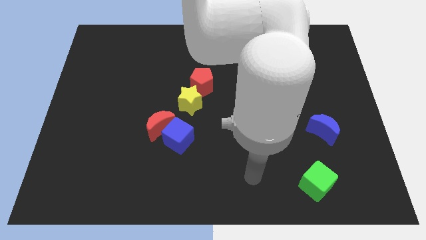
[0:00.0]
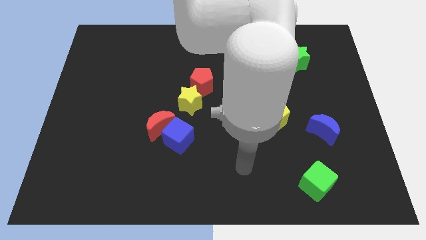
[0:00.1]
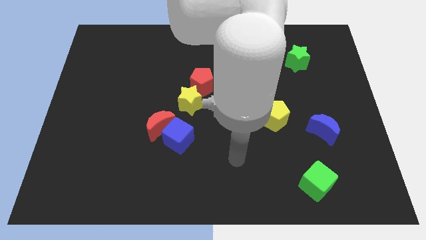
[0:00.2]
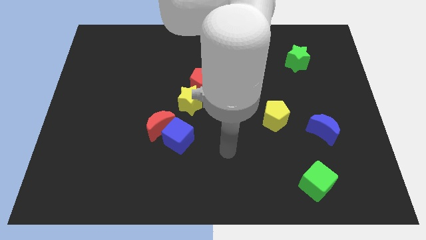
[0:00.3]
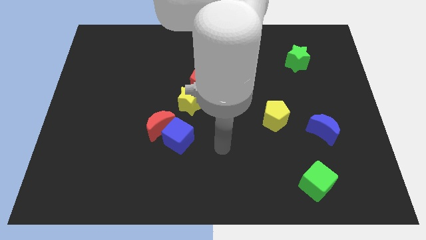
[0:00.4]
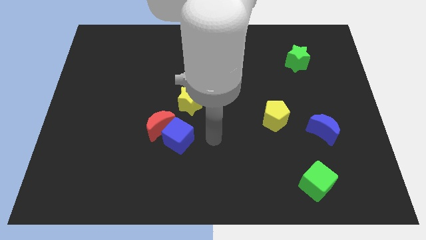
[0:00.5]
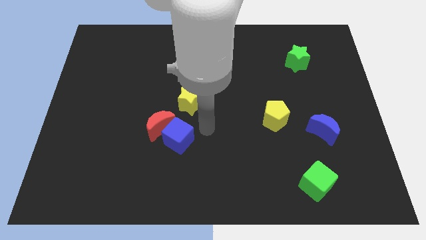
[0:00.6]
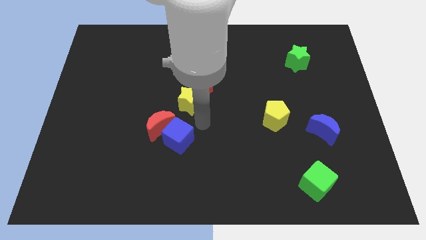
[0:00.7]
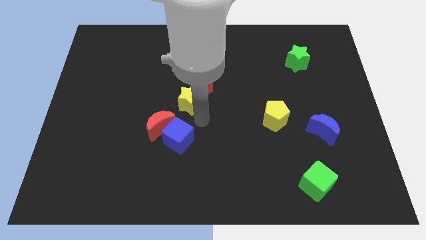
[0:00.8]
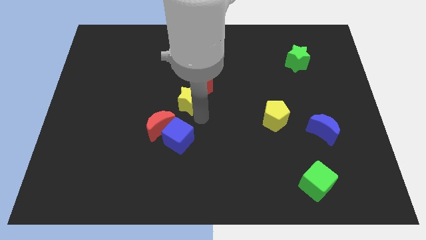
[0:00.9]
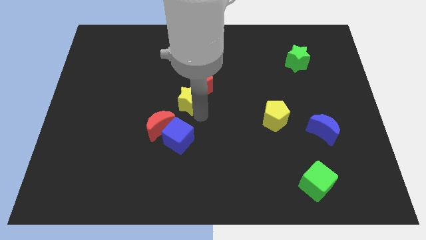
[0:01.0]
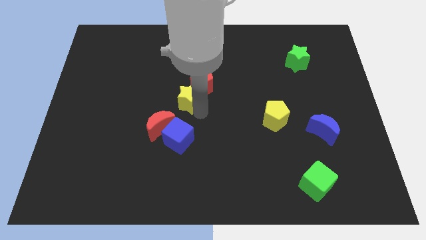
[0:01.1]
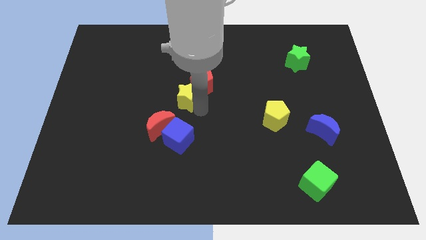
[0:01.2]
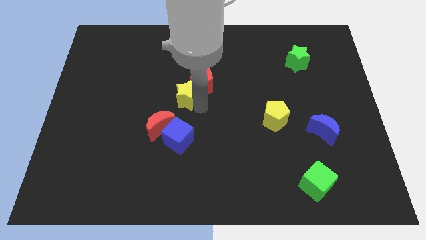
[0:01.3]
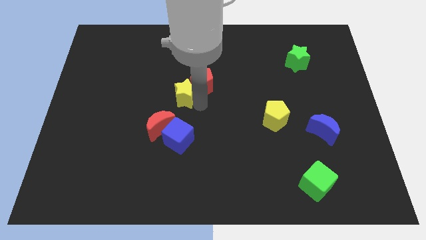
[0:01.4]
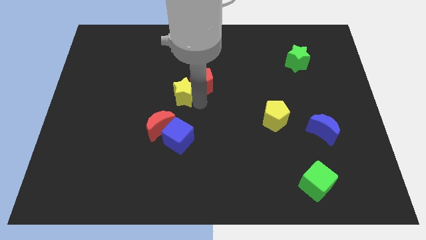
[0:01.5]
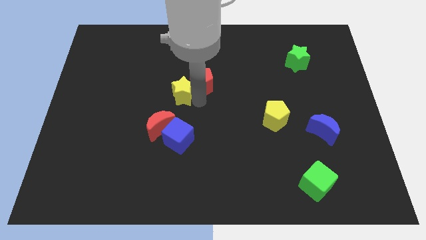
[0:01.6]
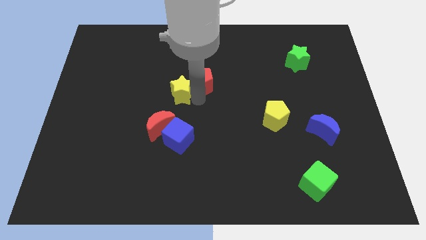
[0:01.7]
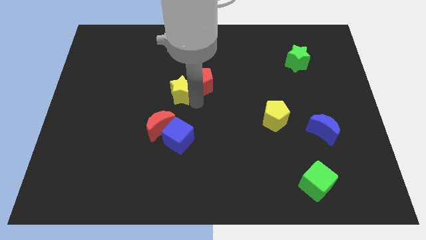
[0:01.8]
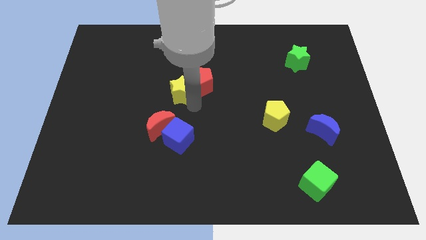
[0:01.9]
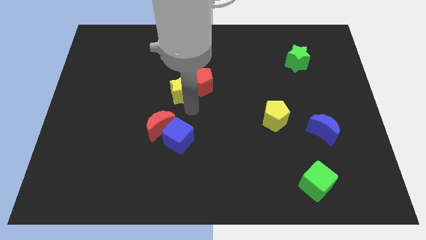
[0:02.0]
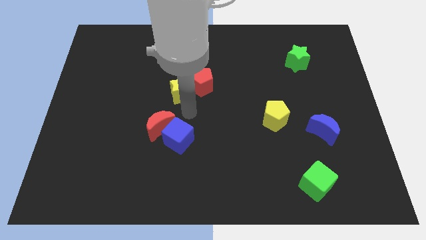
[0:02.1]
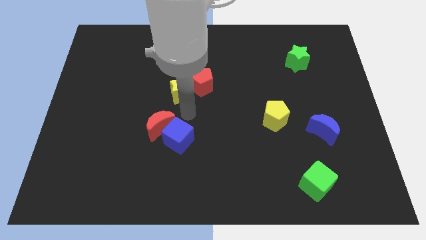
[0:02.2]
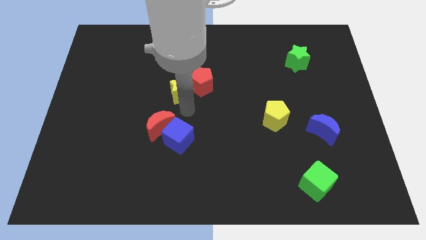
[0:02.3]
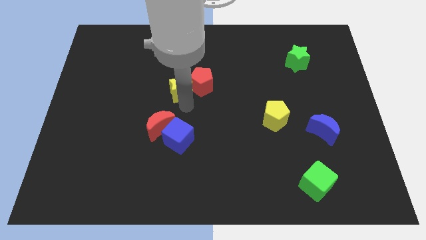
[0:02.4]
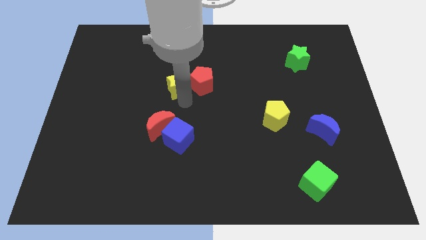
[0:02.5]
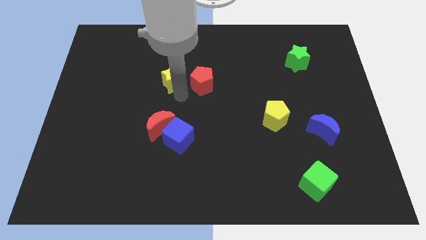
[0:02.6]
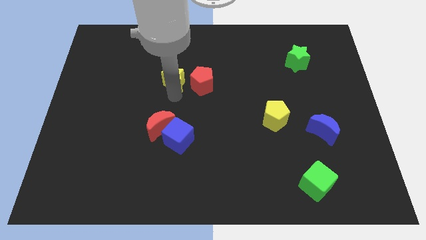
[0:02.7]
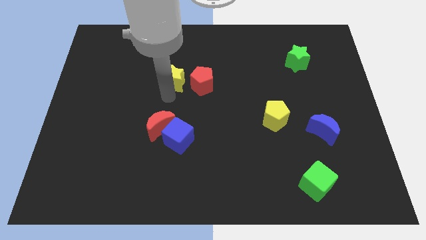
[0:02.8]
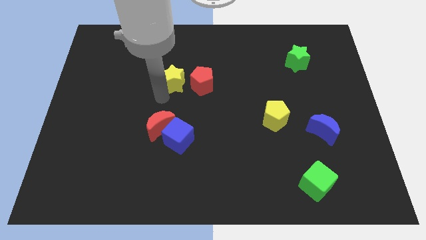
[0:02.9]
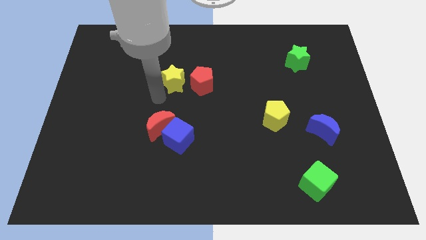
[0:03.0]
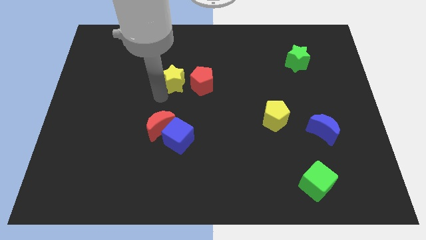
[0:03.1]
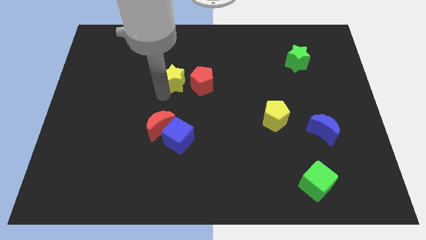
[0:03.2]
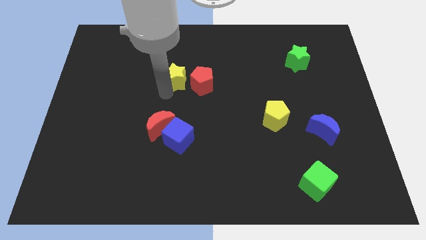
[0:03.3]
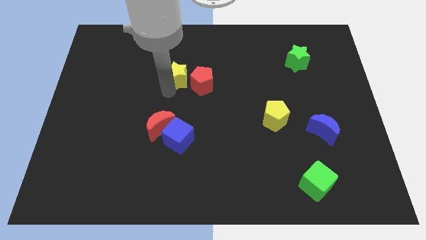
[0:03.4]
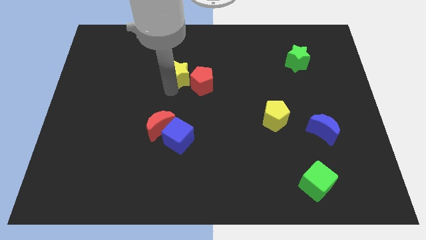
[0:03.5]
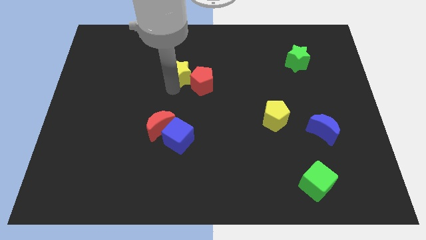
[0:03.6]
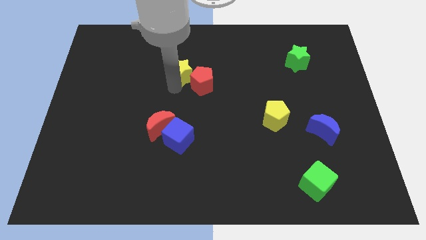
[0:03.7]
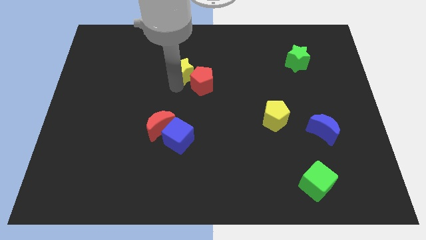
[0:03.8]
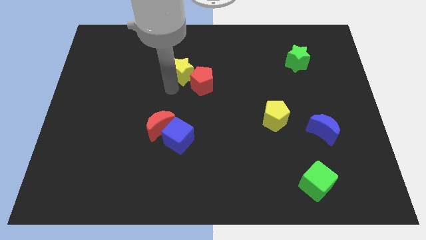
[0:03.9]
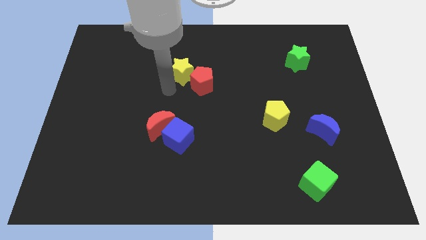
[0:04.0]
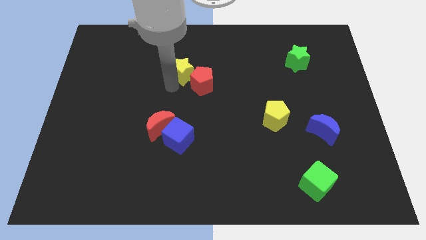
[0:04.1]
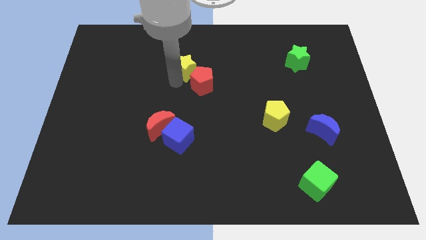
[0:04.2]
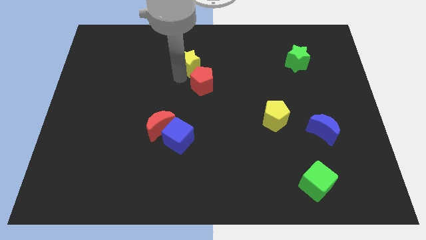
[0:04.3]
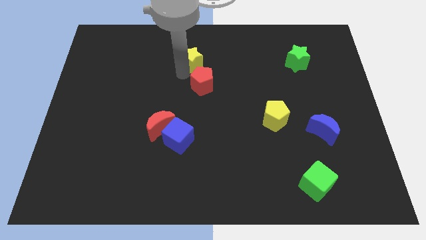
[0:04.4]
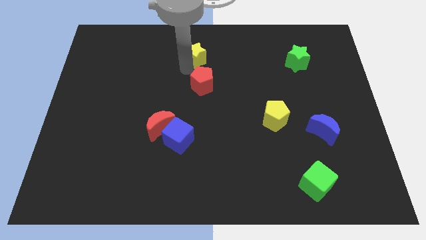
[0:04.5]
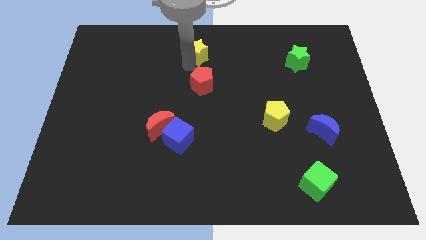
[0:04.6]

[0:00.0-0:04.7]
move the yellow star to the towards your base

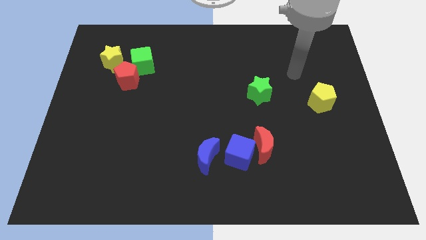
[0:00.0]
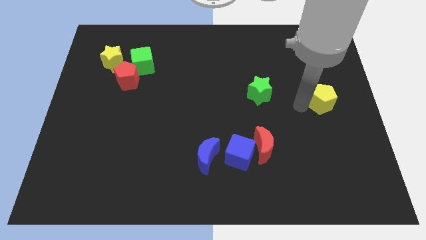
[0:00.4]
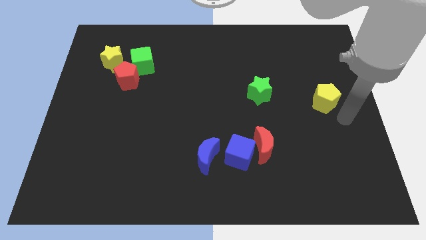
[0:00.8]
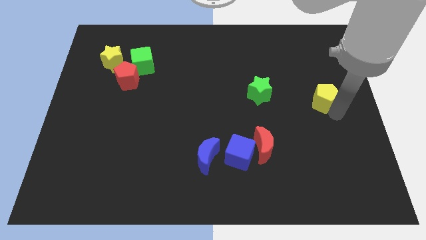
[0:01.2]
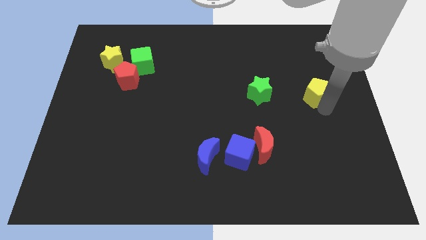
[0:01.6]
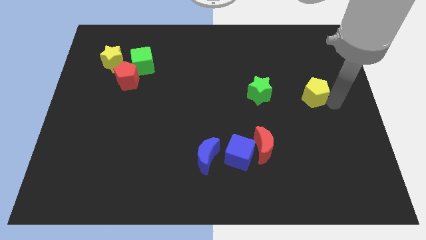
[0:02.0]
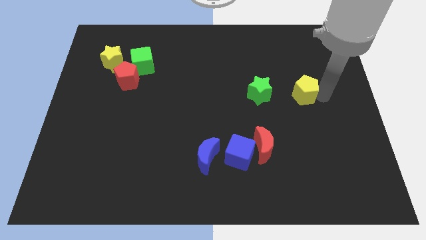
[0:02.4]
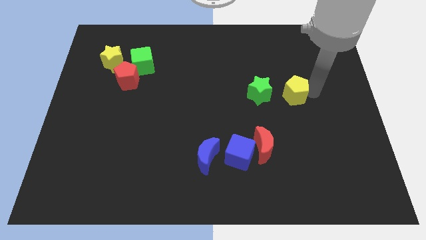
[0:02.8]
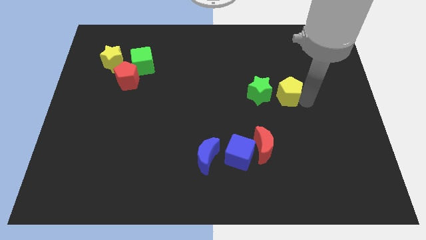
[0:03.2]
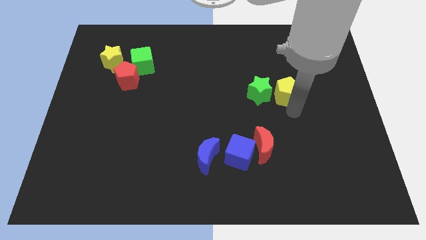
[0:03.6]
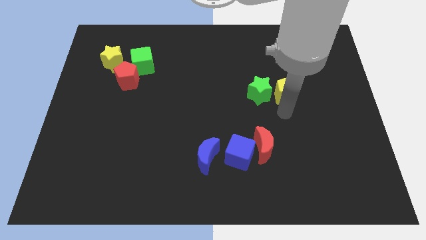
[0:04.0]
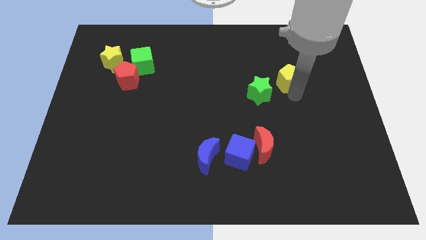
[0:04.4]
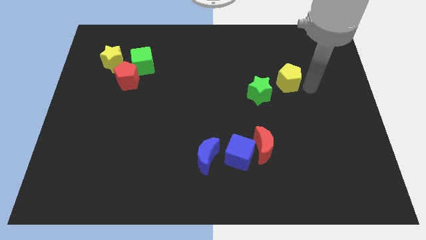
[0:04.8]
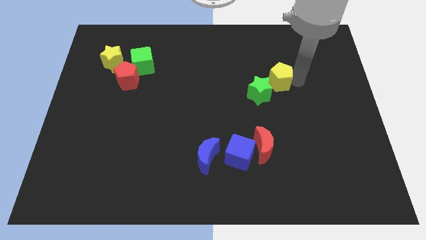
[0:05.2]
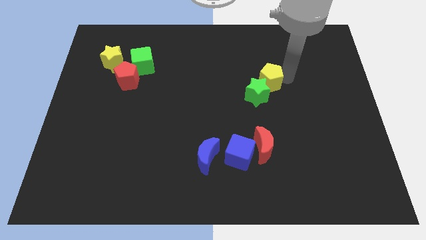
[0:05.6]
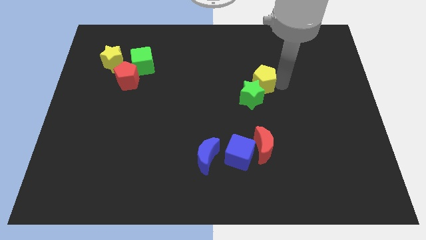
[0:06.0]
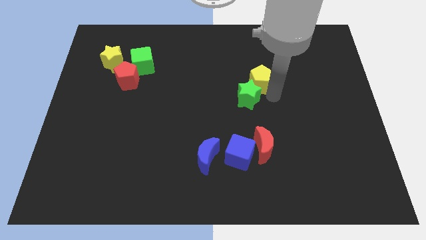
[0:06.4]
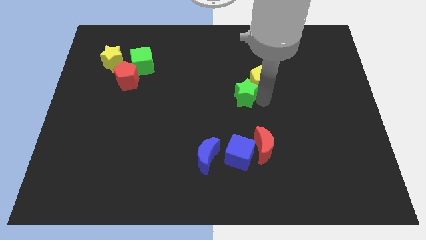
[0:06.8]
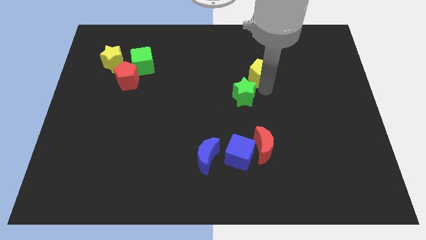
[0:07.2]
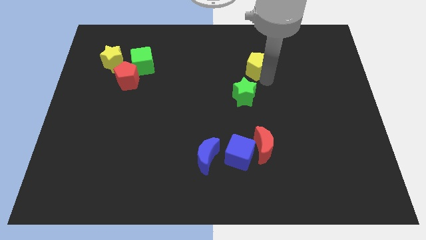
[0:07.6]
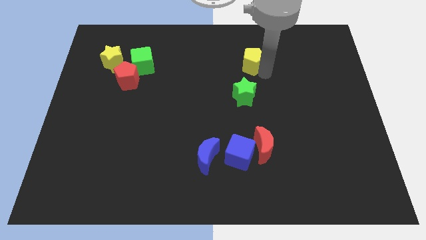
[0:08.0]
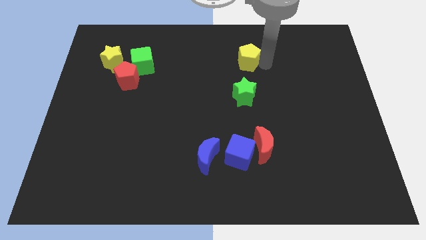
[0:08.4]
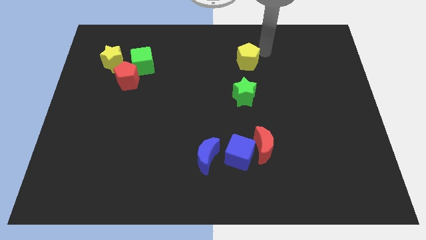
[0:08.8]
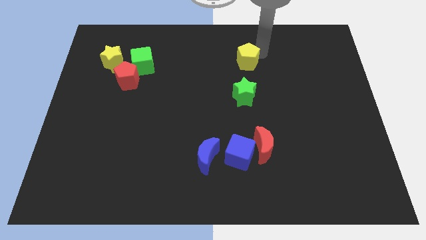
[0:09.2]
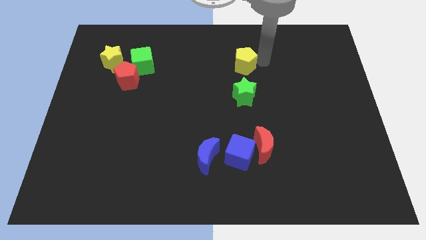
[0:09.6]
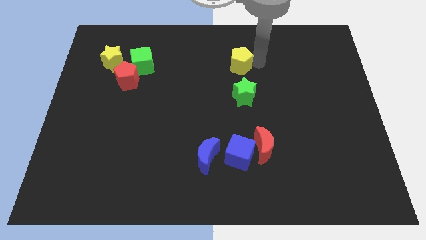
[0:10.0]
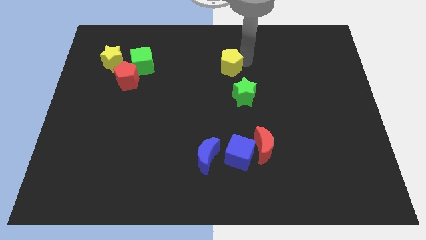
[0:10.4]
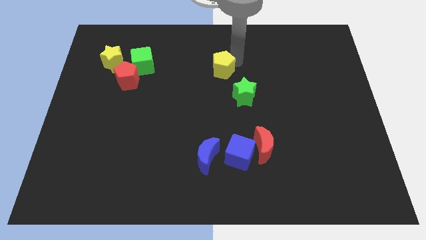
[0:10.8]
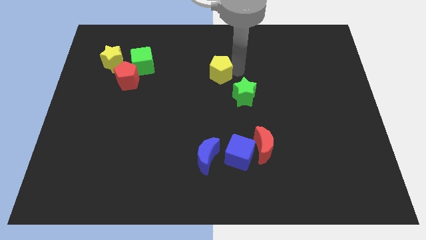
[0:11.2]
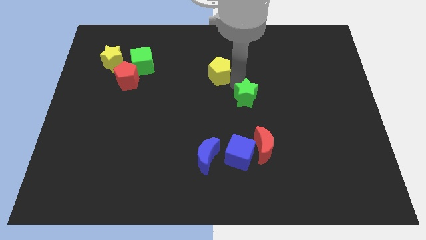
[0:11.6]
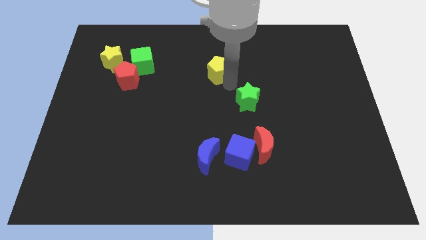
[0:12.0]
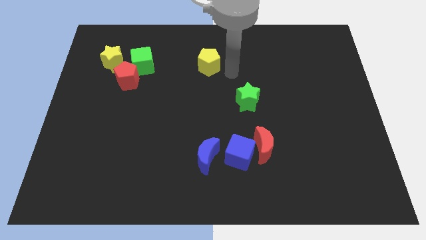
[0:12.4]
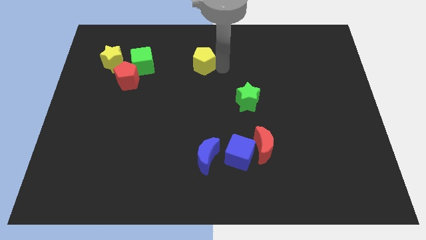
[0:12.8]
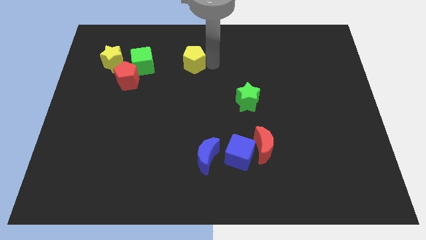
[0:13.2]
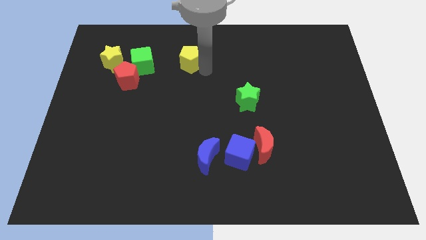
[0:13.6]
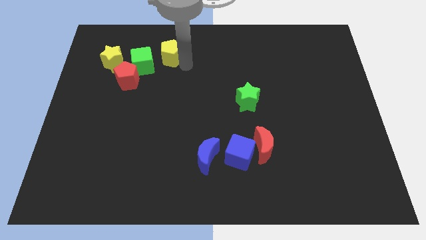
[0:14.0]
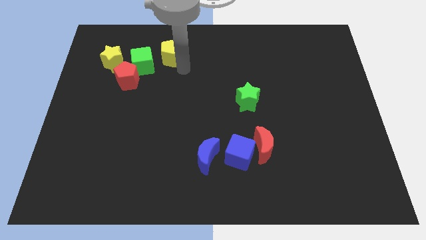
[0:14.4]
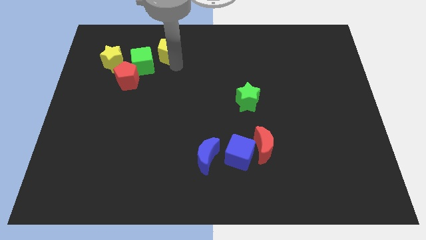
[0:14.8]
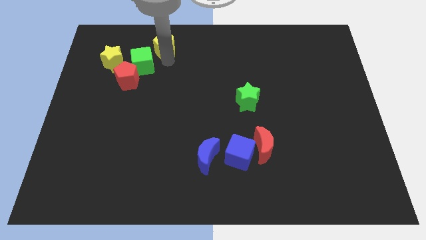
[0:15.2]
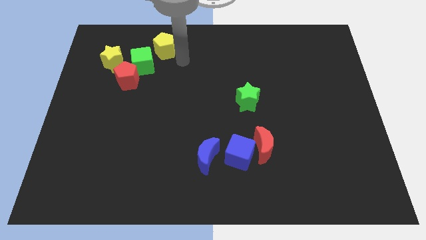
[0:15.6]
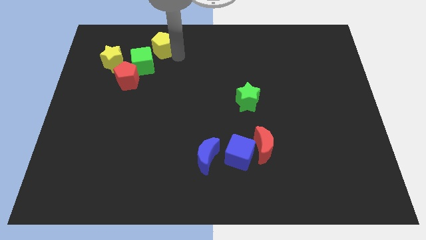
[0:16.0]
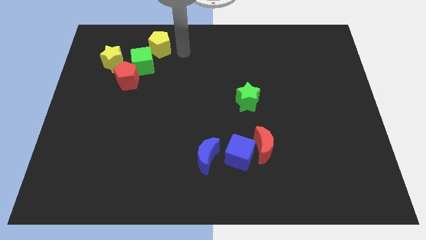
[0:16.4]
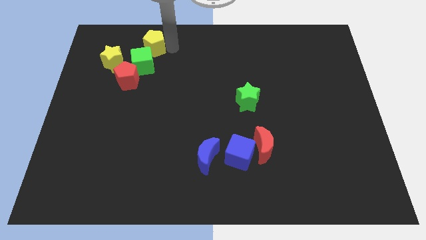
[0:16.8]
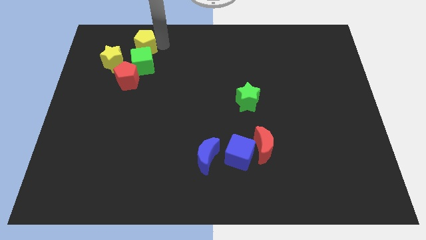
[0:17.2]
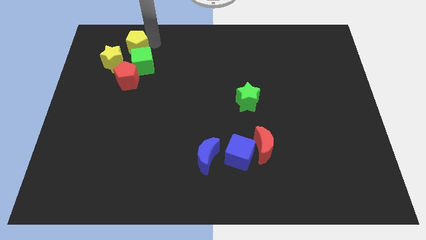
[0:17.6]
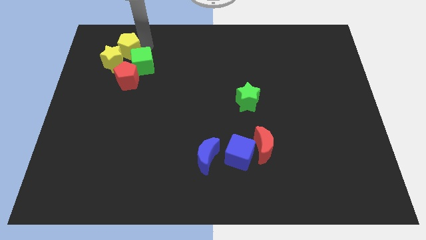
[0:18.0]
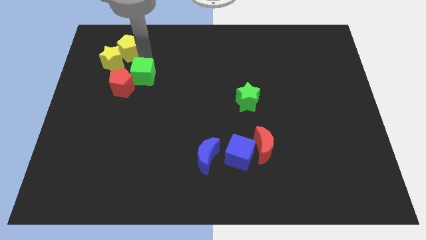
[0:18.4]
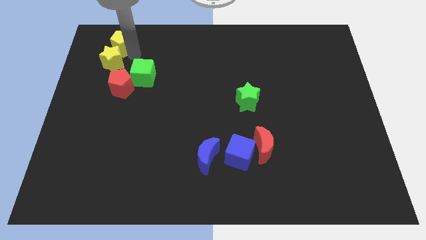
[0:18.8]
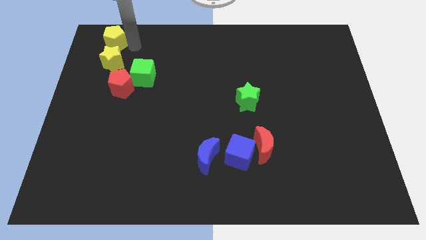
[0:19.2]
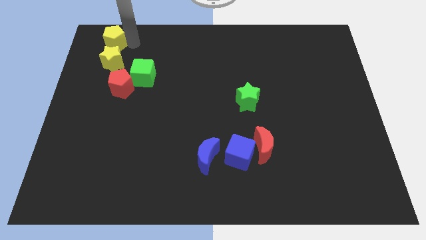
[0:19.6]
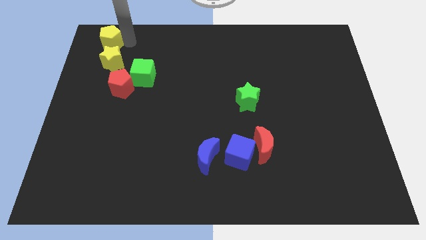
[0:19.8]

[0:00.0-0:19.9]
push the yellow pentagon to the top left of the board
